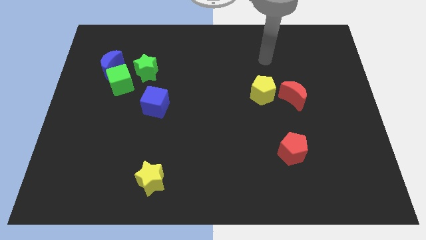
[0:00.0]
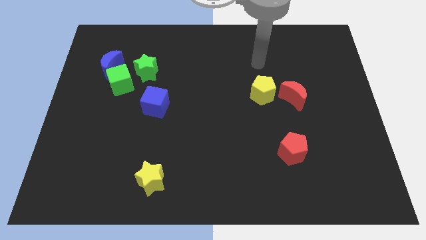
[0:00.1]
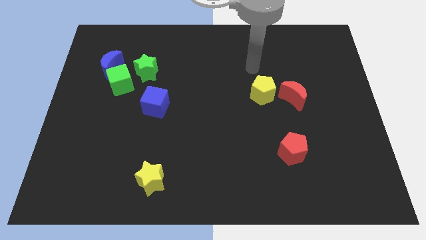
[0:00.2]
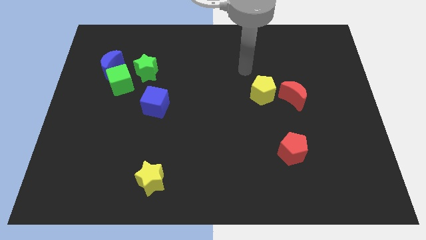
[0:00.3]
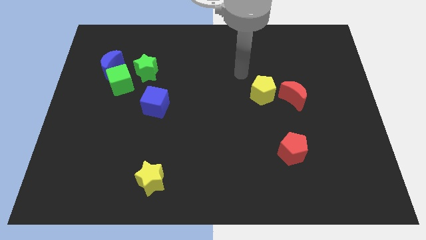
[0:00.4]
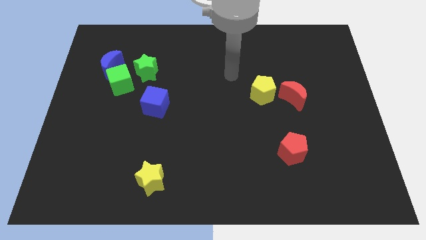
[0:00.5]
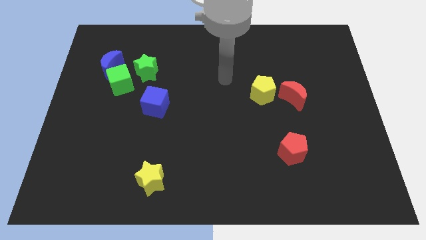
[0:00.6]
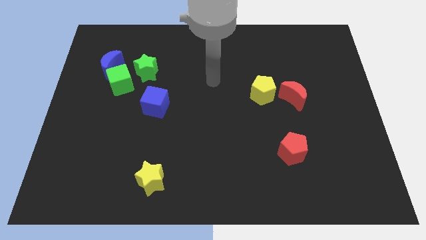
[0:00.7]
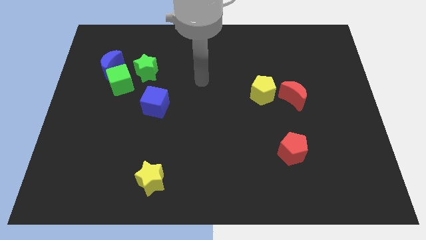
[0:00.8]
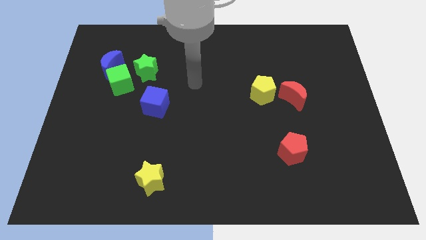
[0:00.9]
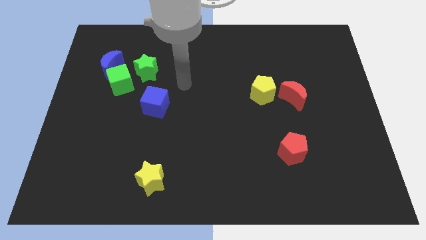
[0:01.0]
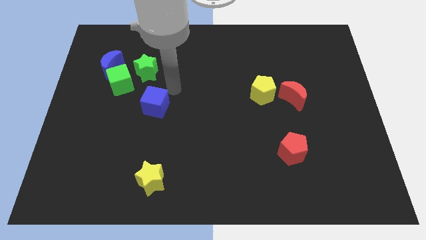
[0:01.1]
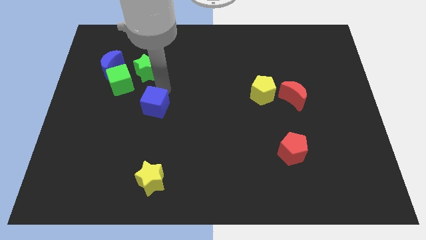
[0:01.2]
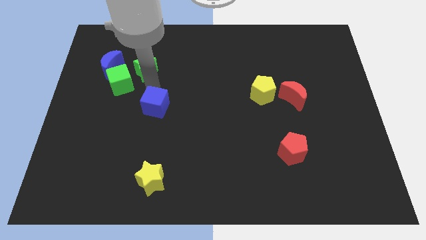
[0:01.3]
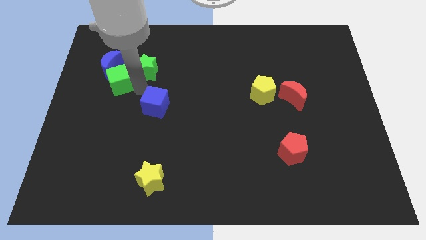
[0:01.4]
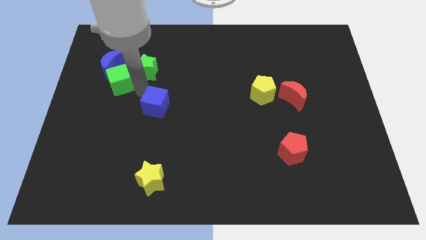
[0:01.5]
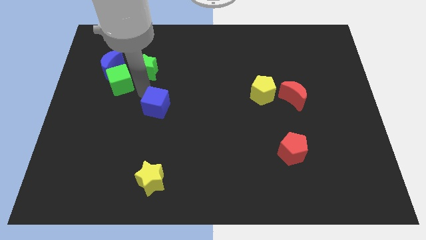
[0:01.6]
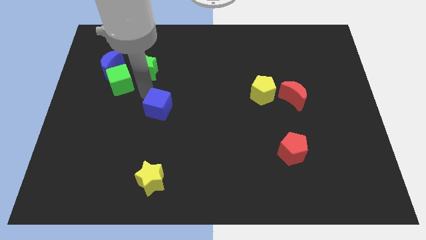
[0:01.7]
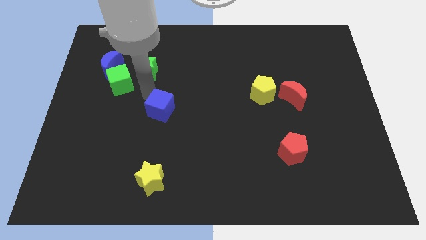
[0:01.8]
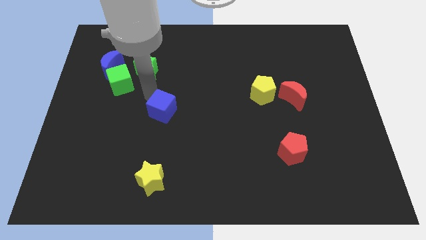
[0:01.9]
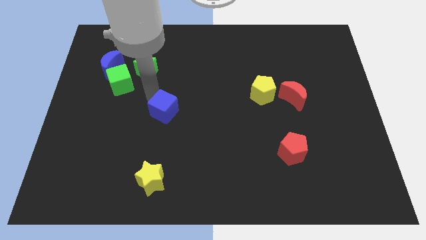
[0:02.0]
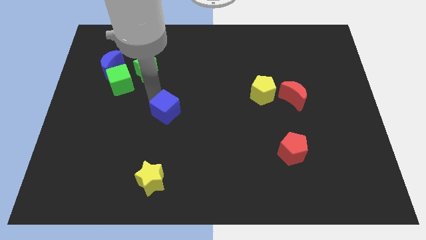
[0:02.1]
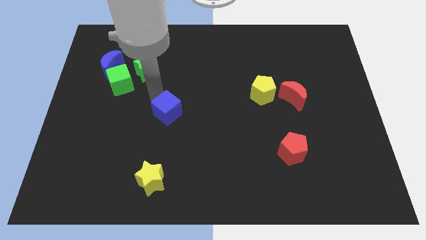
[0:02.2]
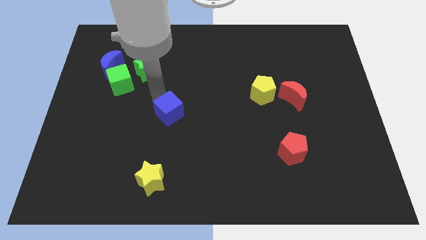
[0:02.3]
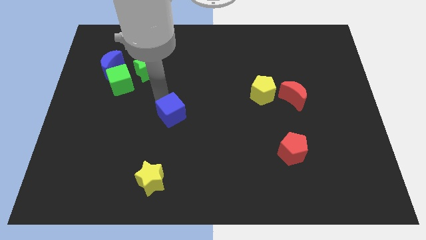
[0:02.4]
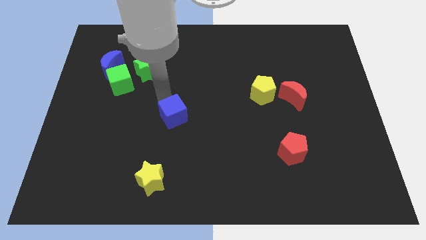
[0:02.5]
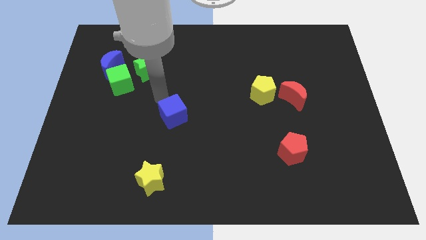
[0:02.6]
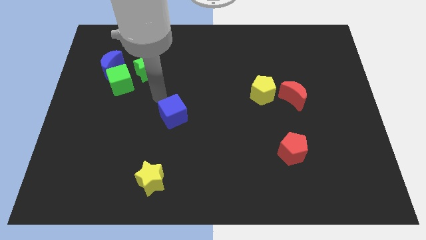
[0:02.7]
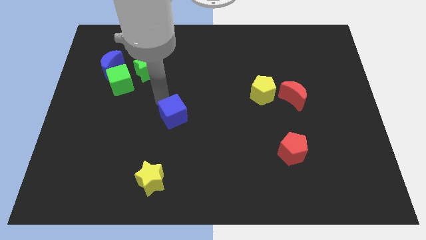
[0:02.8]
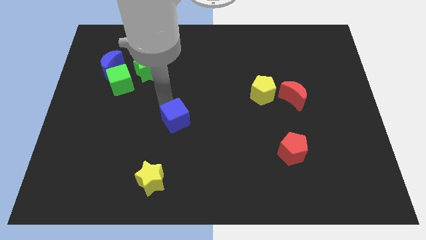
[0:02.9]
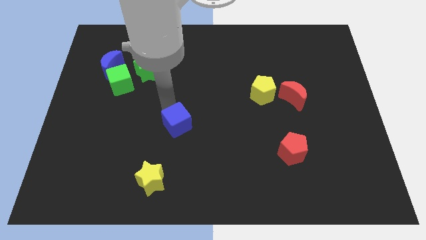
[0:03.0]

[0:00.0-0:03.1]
slightly move the blue cube downwards and then right

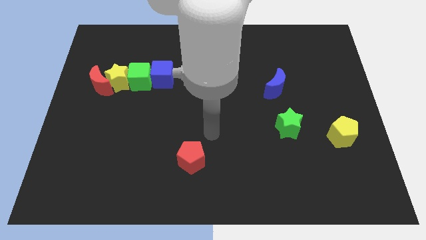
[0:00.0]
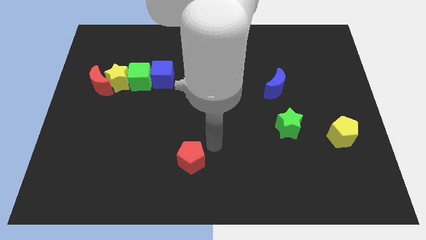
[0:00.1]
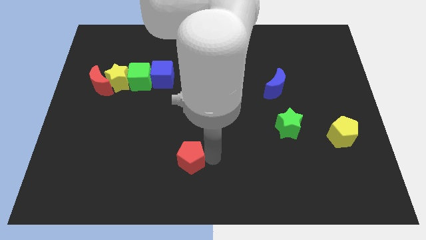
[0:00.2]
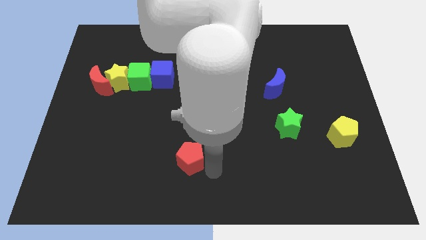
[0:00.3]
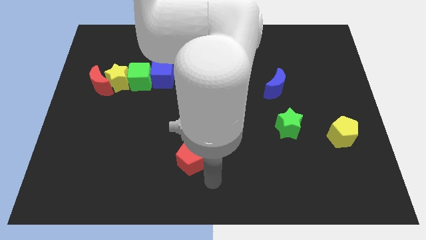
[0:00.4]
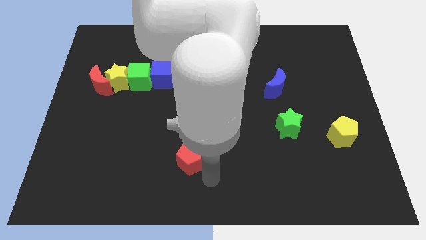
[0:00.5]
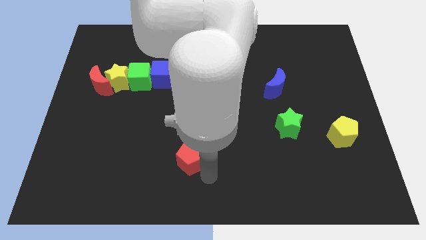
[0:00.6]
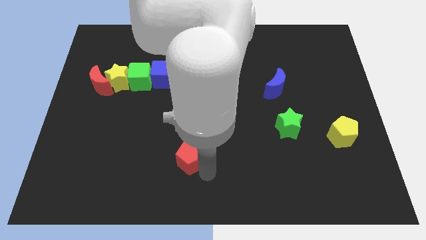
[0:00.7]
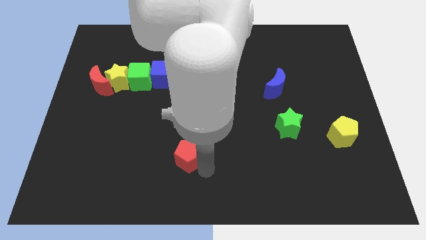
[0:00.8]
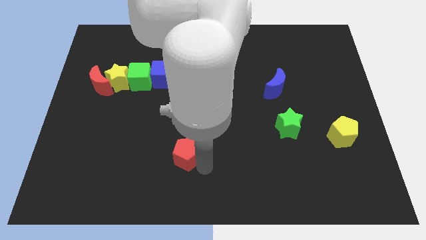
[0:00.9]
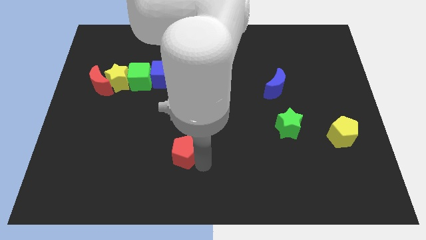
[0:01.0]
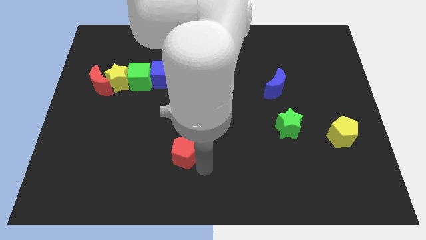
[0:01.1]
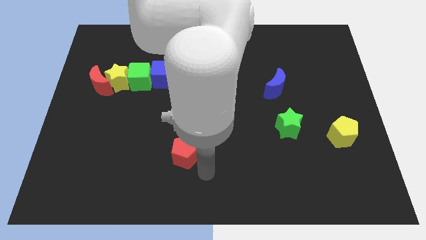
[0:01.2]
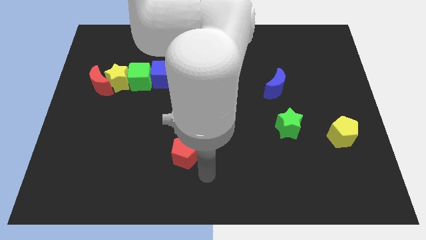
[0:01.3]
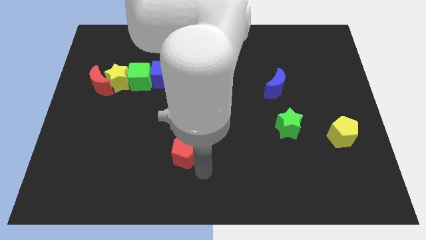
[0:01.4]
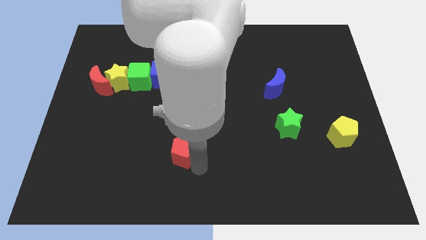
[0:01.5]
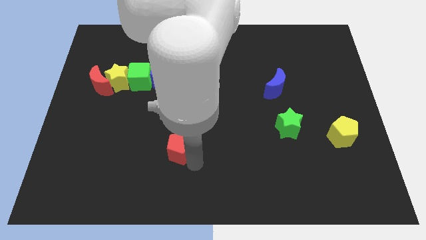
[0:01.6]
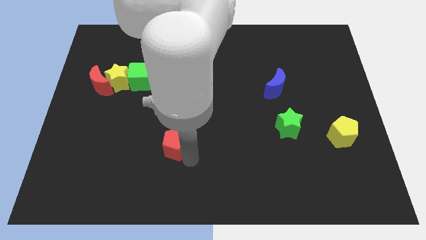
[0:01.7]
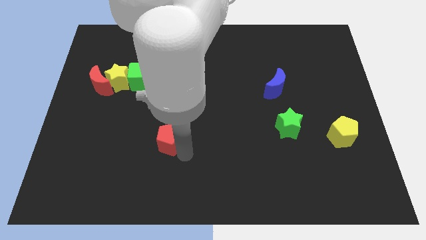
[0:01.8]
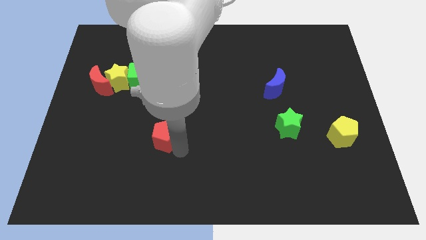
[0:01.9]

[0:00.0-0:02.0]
move the red pentagon upwards and left diagonally a bit

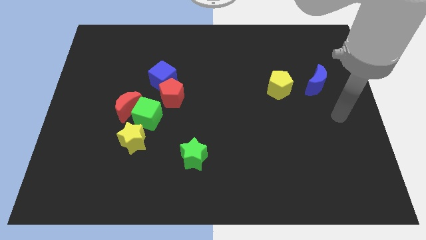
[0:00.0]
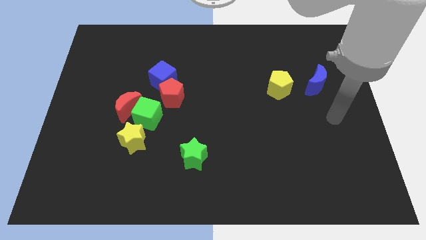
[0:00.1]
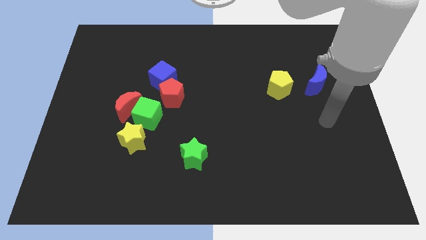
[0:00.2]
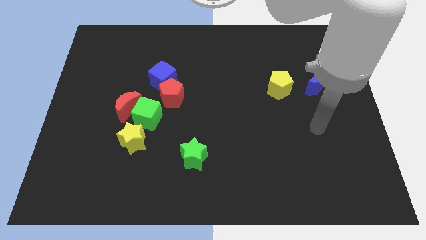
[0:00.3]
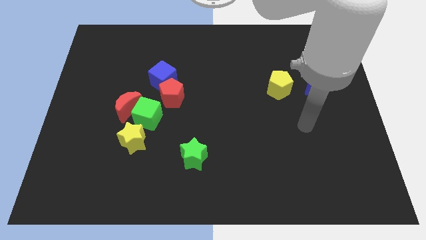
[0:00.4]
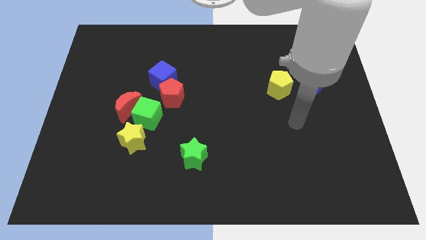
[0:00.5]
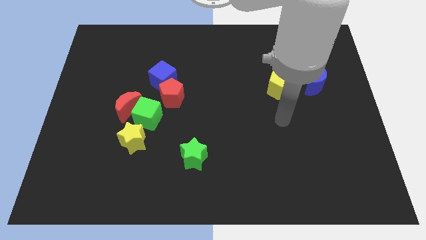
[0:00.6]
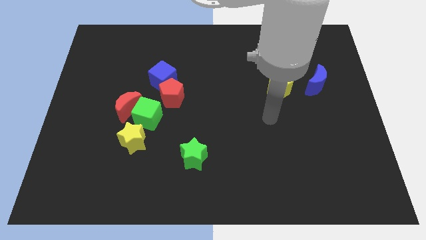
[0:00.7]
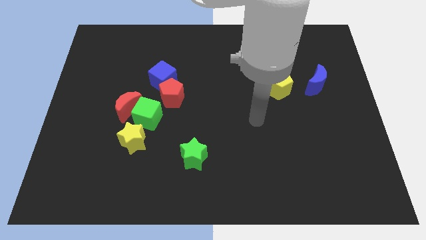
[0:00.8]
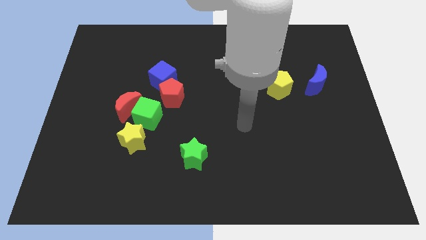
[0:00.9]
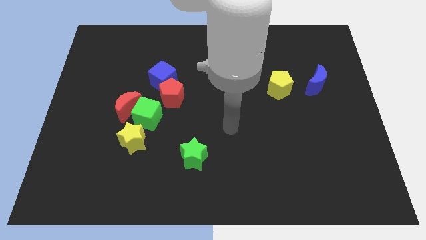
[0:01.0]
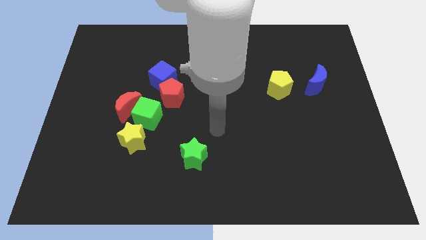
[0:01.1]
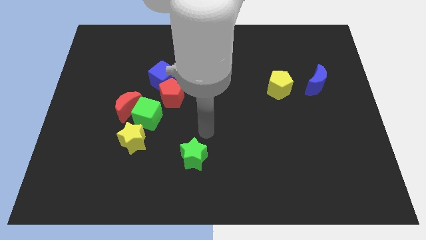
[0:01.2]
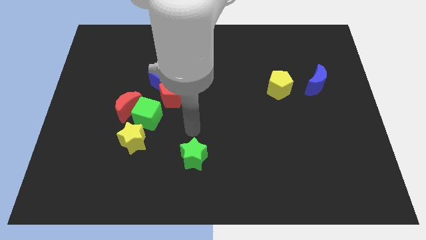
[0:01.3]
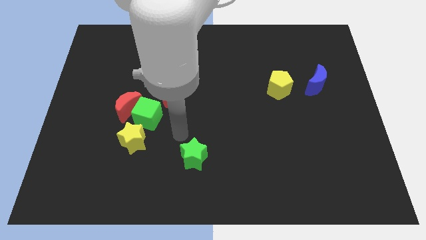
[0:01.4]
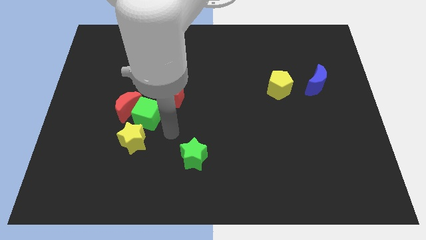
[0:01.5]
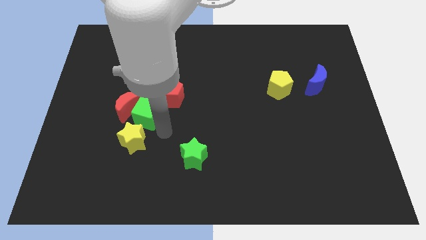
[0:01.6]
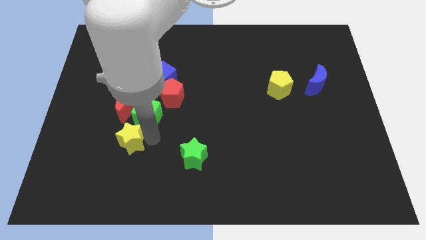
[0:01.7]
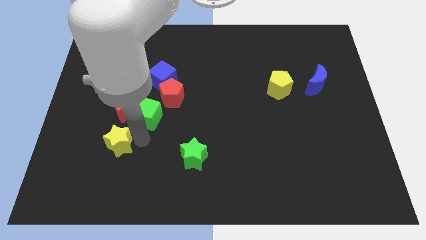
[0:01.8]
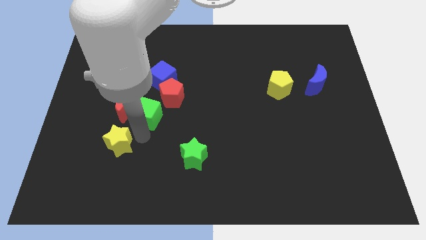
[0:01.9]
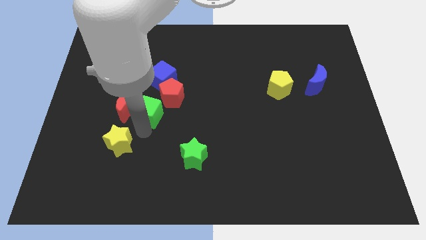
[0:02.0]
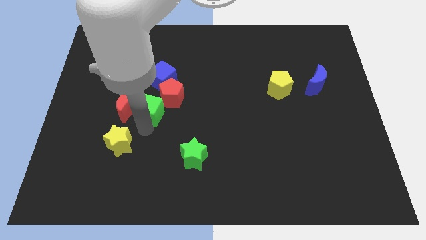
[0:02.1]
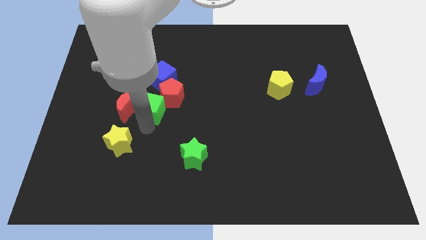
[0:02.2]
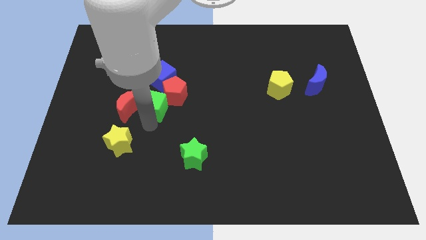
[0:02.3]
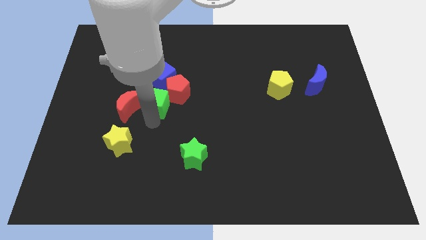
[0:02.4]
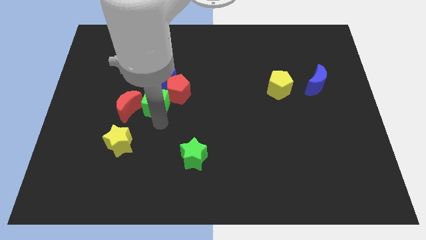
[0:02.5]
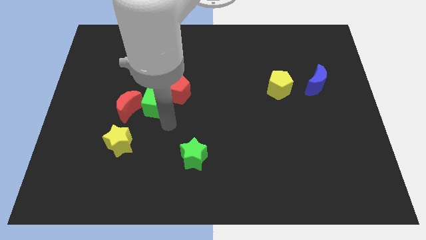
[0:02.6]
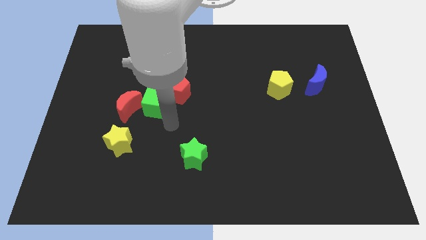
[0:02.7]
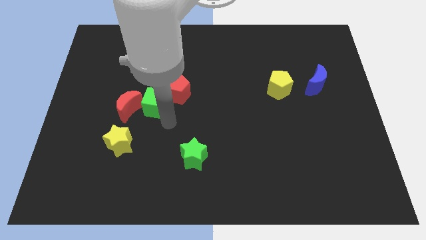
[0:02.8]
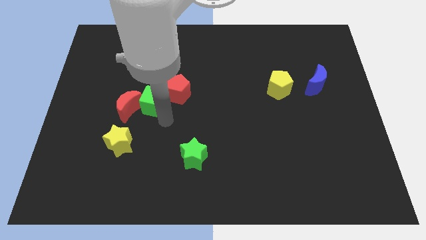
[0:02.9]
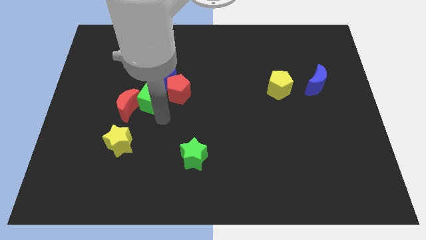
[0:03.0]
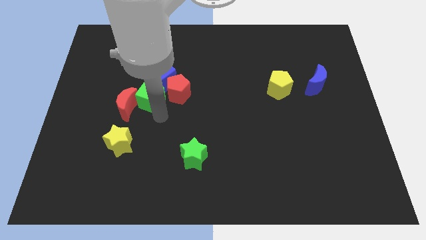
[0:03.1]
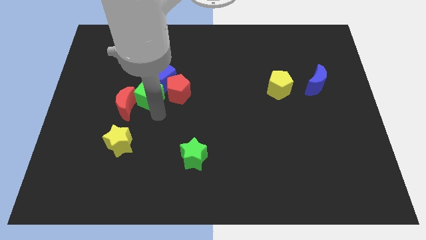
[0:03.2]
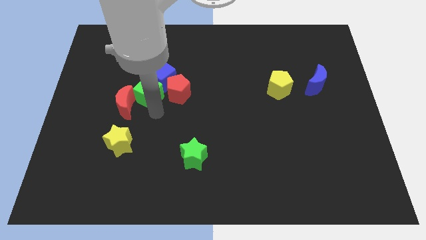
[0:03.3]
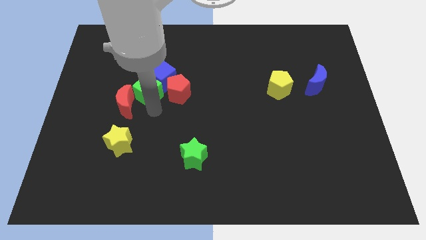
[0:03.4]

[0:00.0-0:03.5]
slightly slide the green cube upwards
